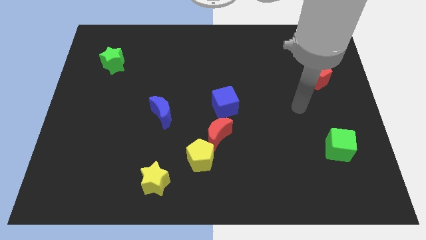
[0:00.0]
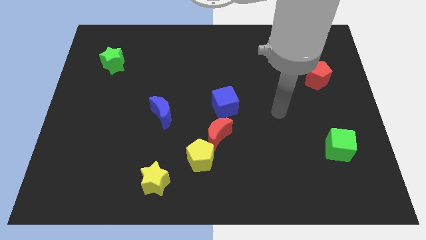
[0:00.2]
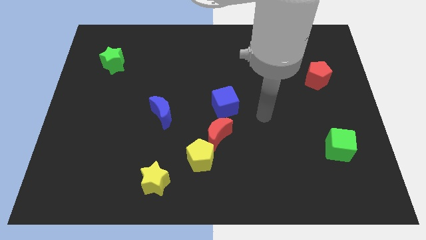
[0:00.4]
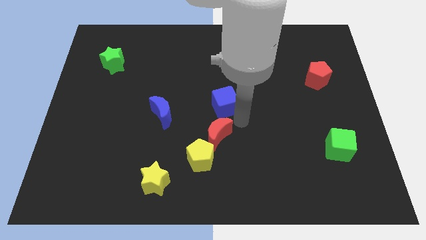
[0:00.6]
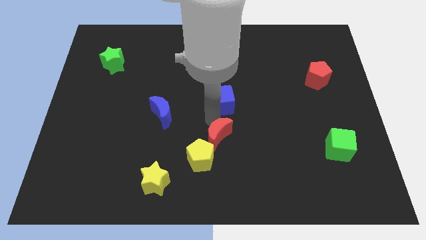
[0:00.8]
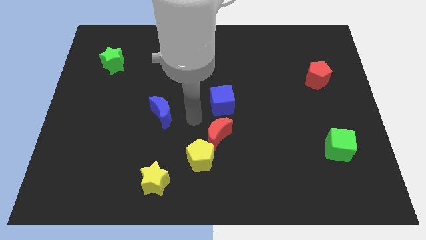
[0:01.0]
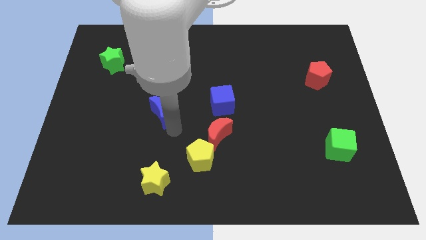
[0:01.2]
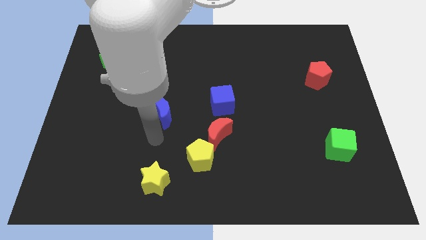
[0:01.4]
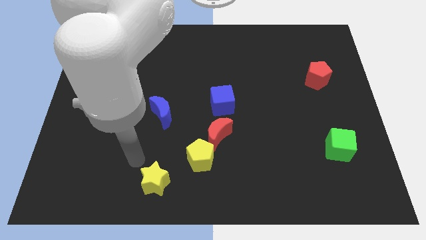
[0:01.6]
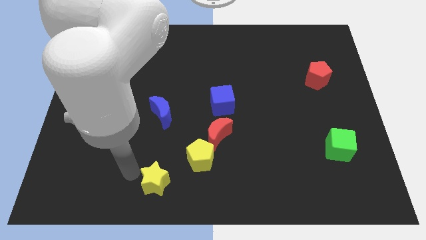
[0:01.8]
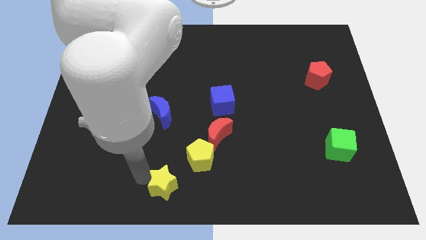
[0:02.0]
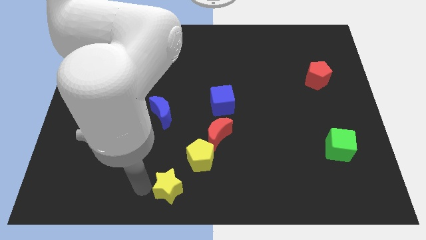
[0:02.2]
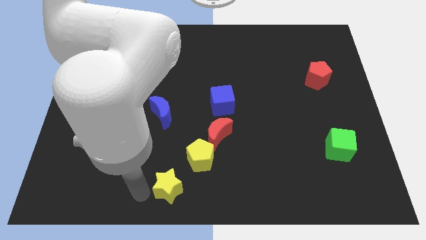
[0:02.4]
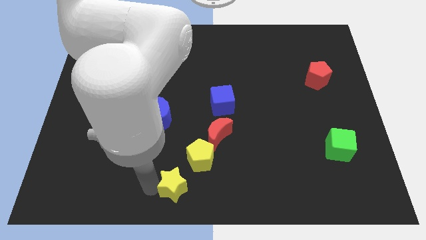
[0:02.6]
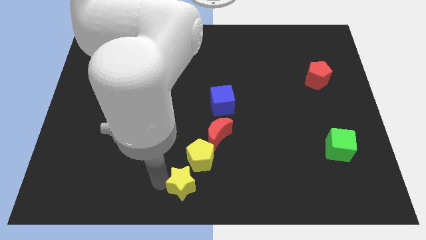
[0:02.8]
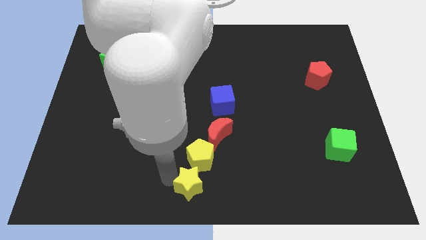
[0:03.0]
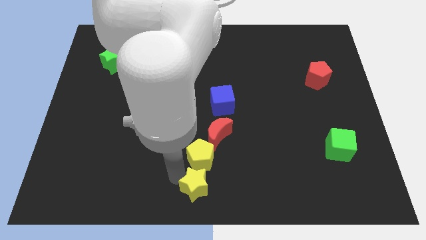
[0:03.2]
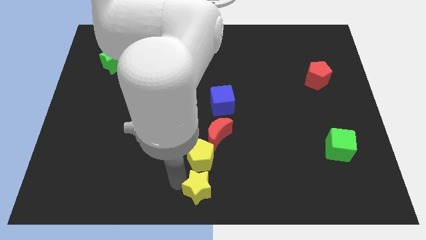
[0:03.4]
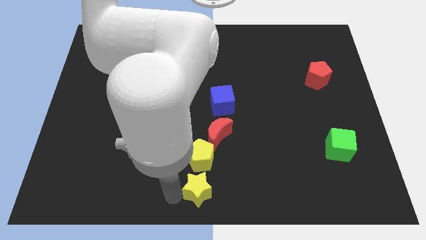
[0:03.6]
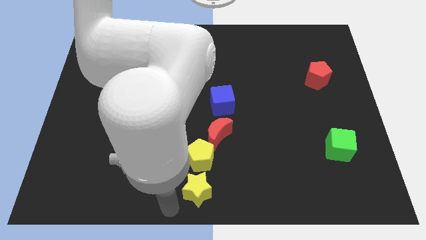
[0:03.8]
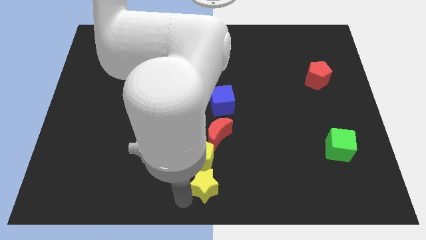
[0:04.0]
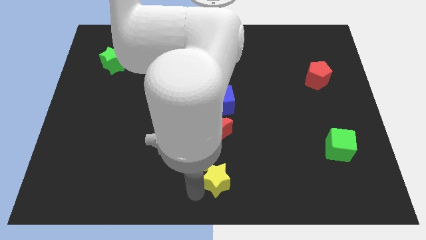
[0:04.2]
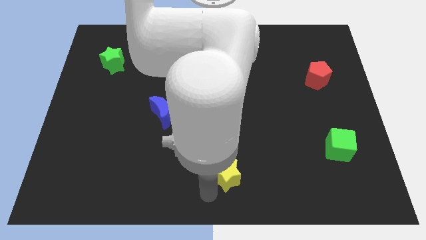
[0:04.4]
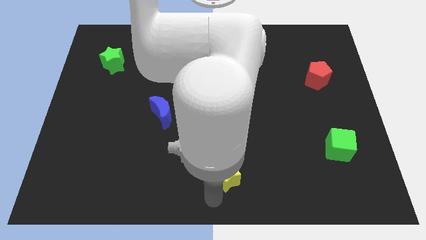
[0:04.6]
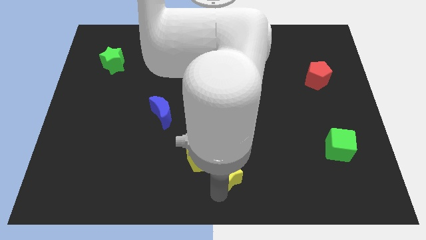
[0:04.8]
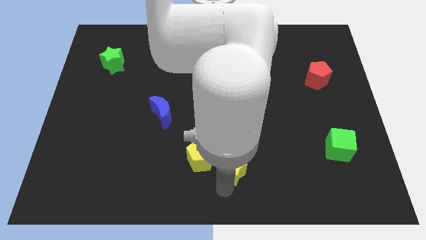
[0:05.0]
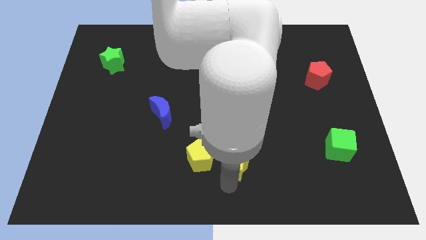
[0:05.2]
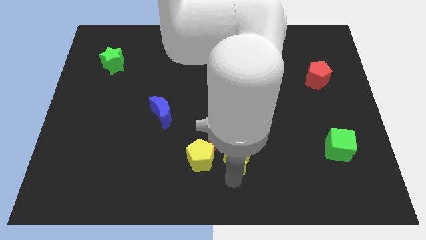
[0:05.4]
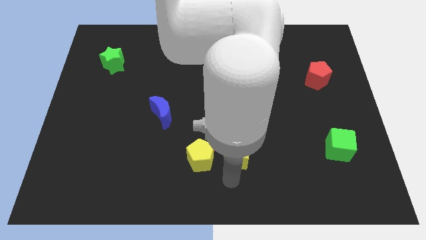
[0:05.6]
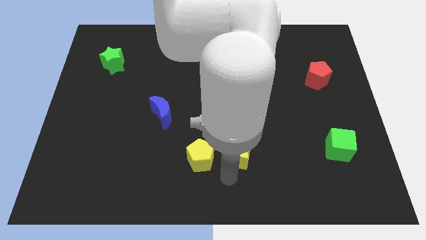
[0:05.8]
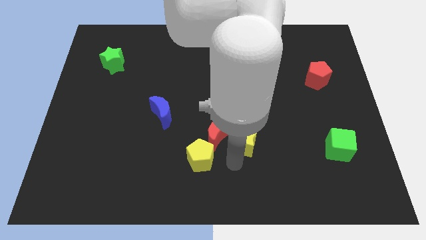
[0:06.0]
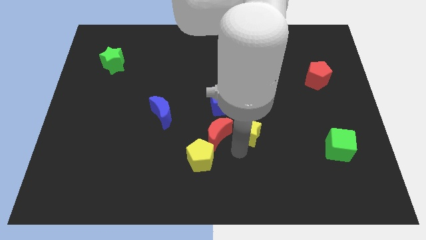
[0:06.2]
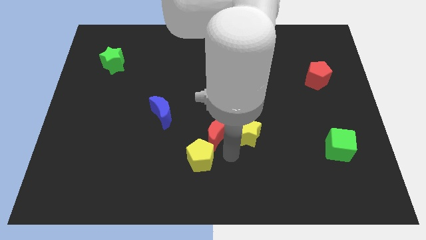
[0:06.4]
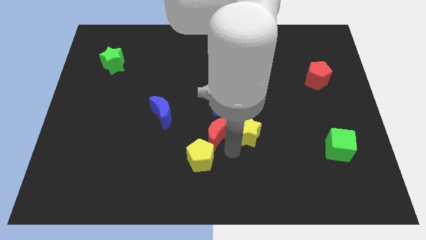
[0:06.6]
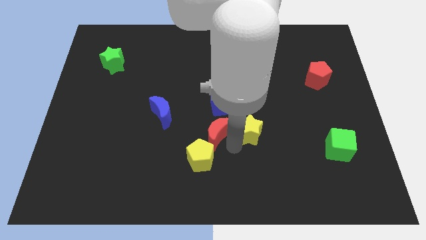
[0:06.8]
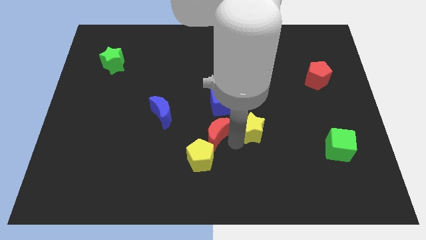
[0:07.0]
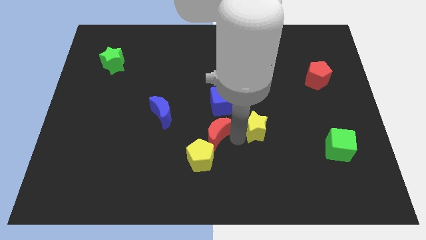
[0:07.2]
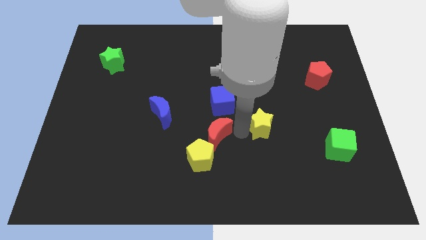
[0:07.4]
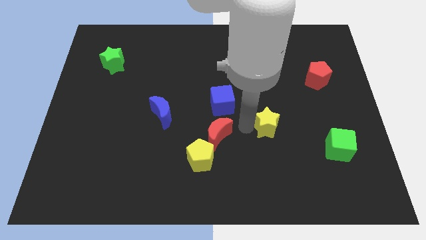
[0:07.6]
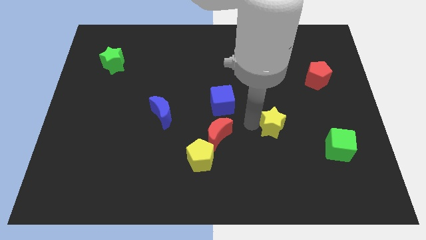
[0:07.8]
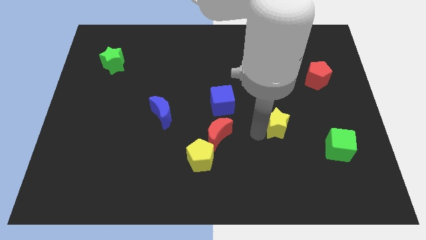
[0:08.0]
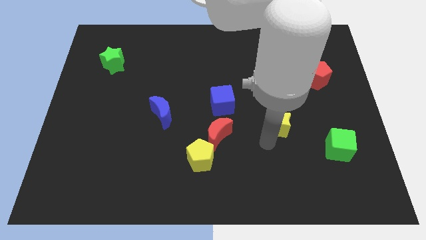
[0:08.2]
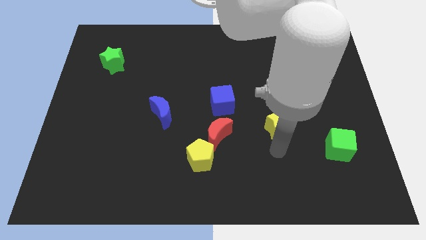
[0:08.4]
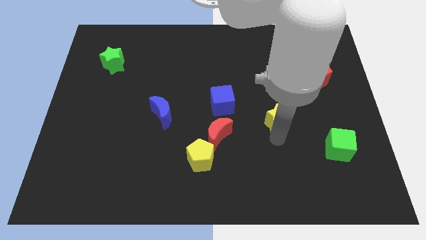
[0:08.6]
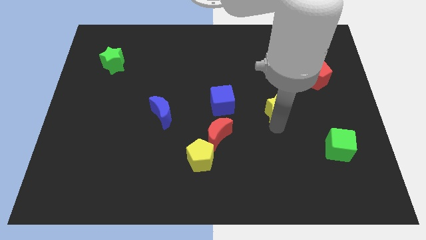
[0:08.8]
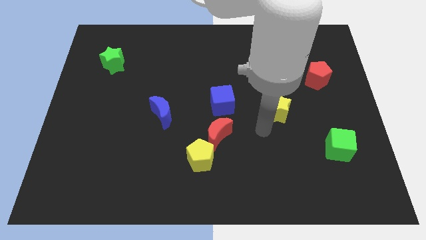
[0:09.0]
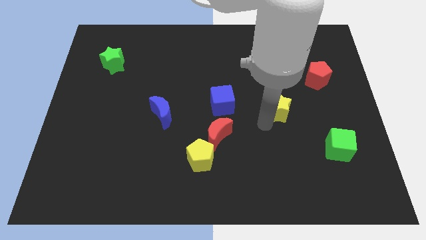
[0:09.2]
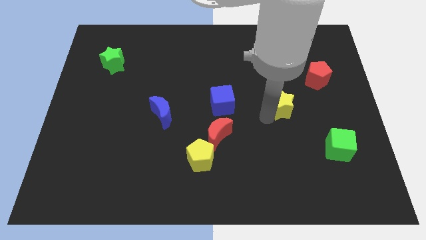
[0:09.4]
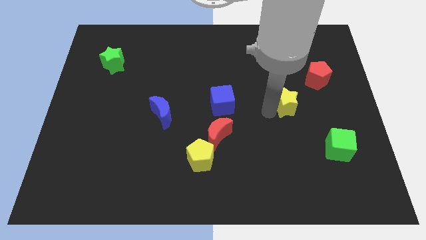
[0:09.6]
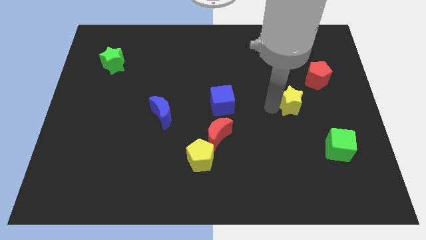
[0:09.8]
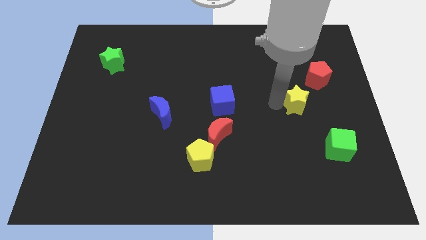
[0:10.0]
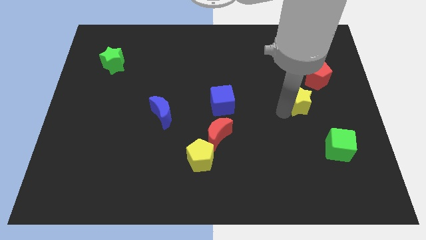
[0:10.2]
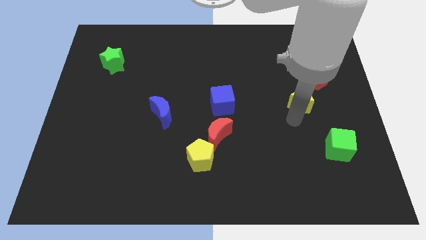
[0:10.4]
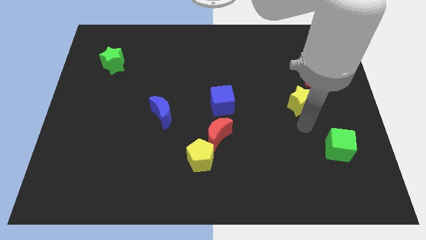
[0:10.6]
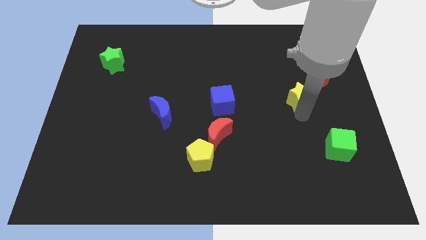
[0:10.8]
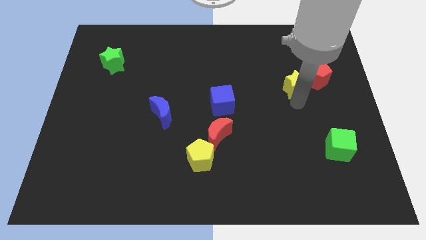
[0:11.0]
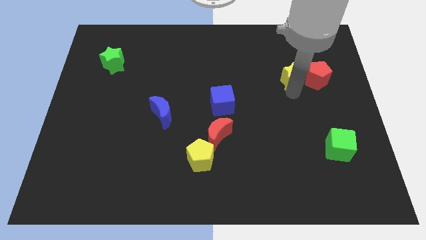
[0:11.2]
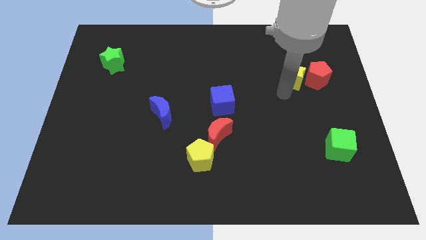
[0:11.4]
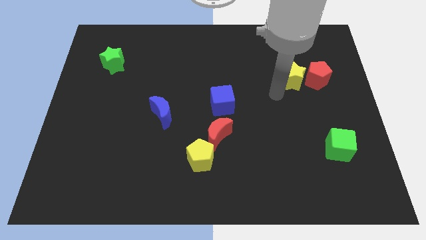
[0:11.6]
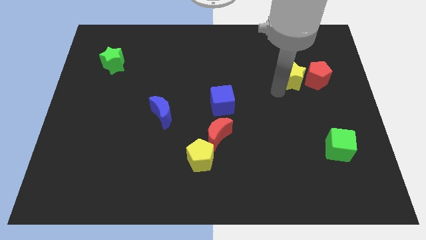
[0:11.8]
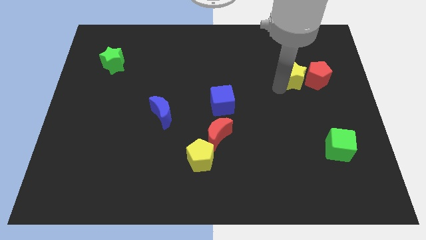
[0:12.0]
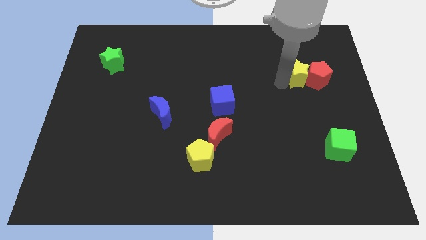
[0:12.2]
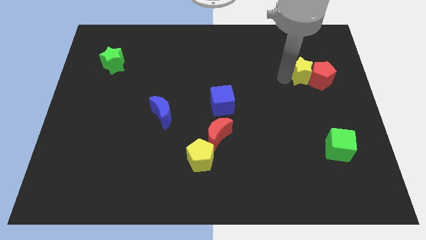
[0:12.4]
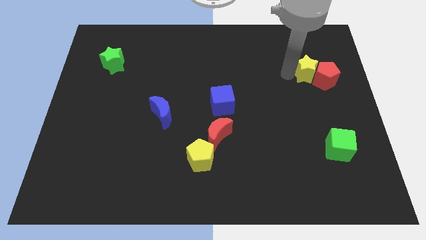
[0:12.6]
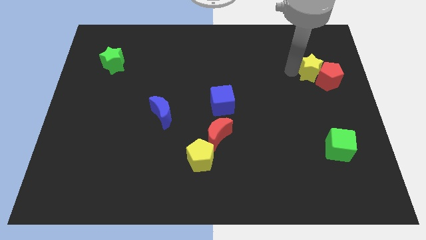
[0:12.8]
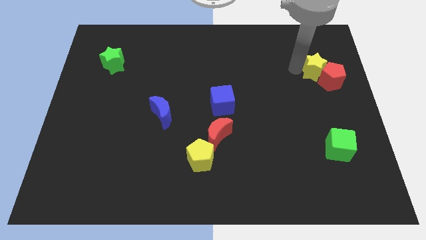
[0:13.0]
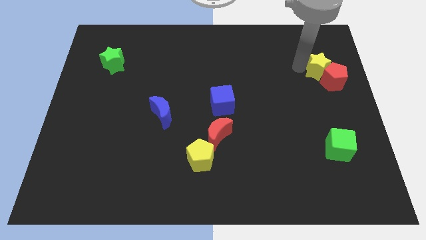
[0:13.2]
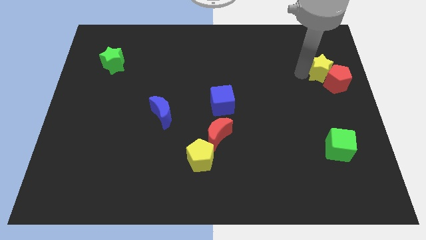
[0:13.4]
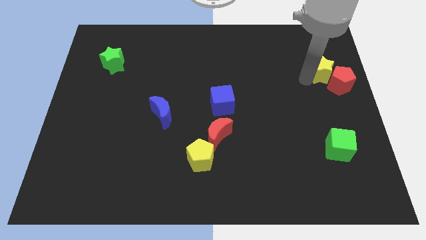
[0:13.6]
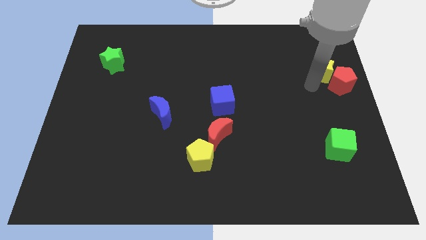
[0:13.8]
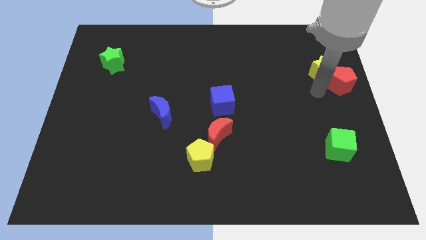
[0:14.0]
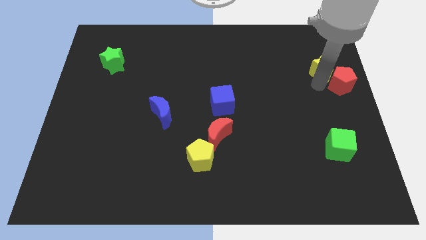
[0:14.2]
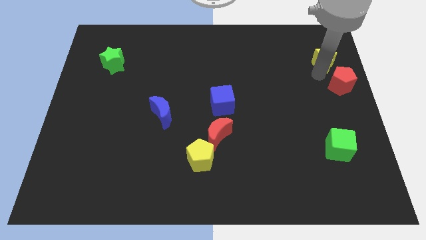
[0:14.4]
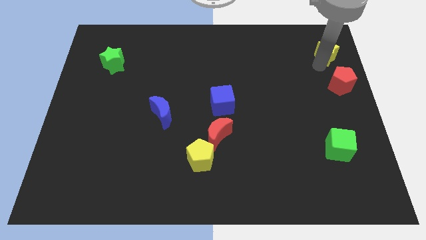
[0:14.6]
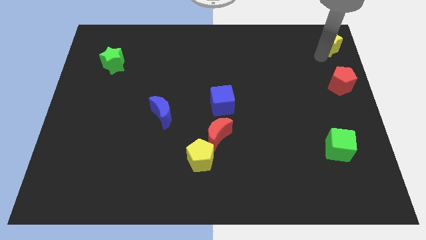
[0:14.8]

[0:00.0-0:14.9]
put the yellow star to the upper right corner
